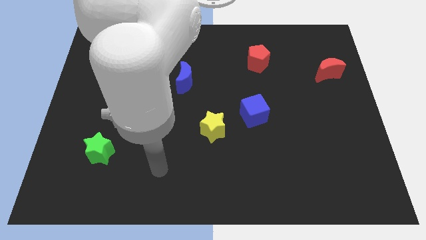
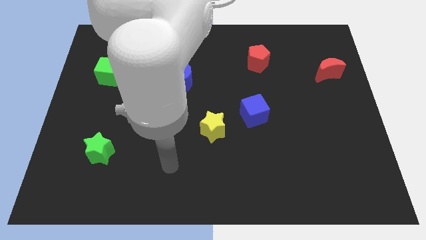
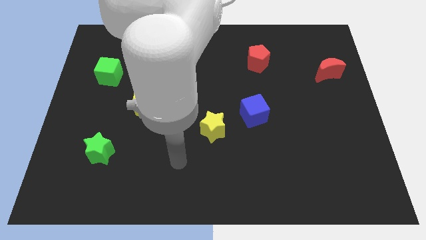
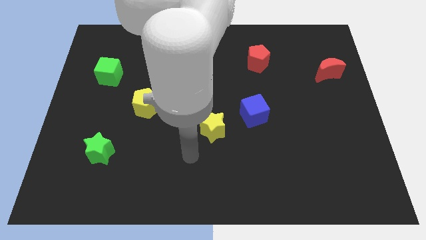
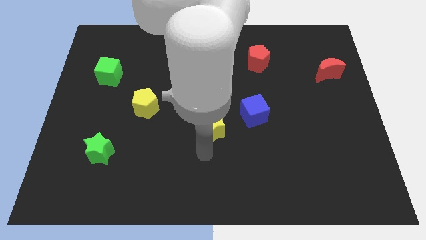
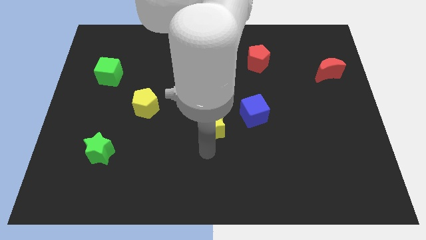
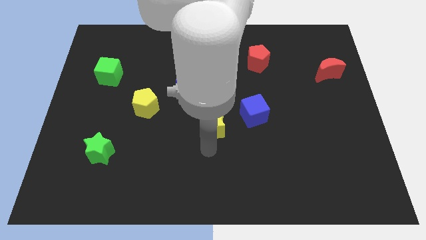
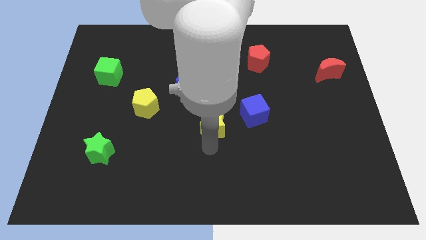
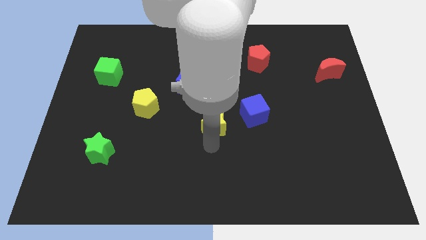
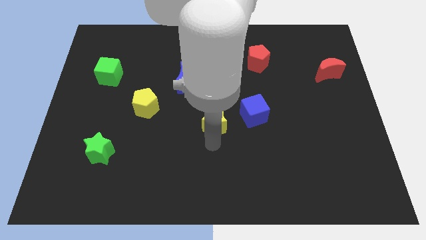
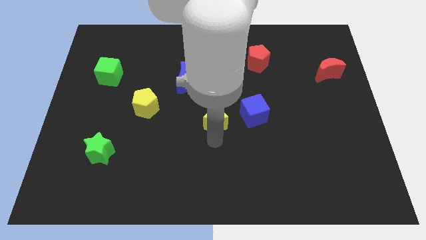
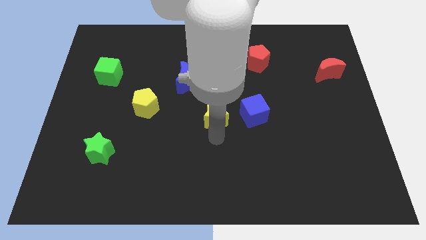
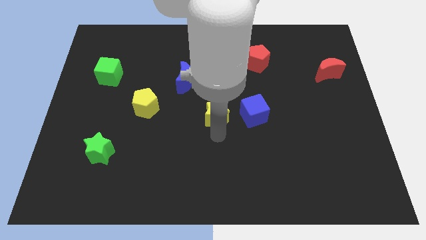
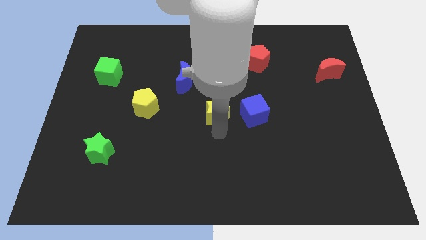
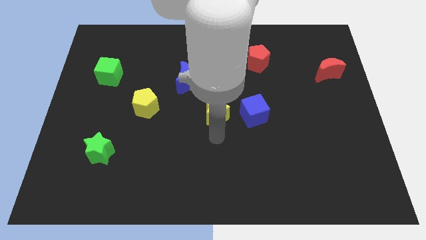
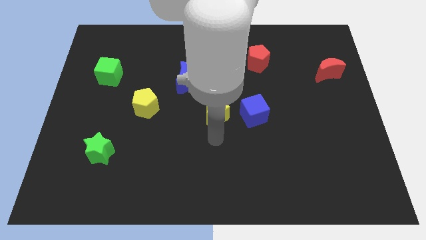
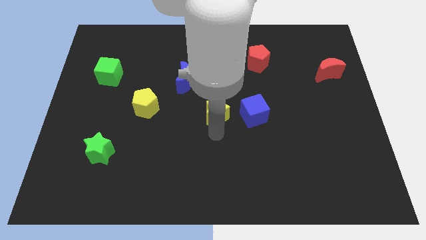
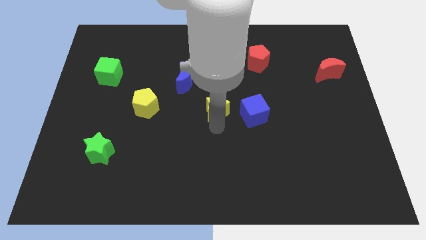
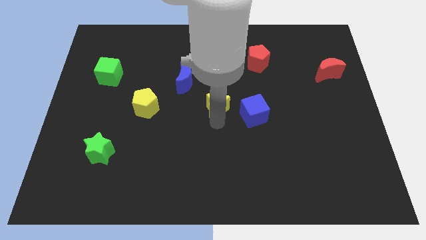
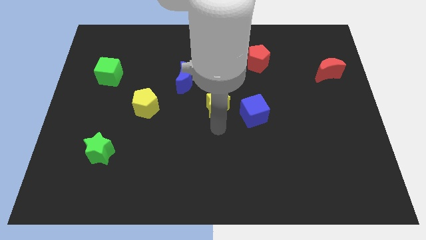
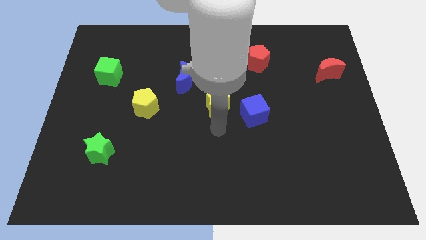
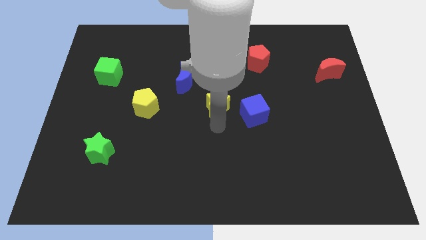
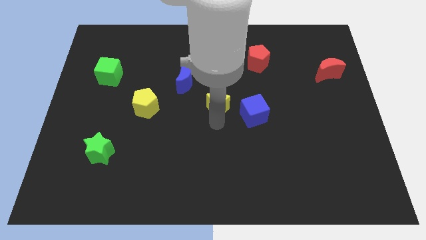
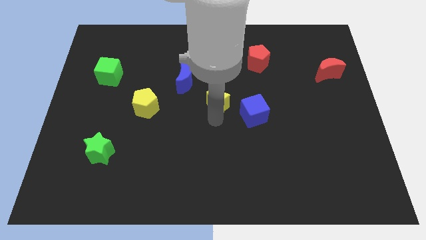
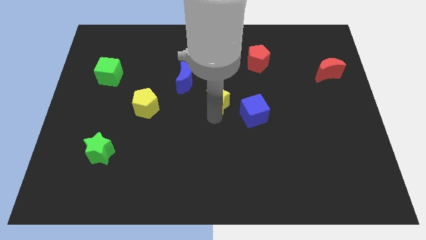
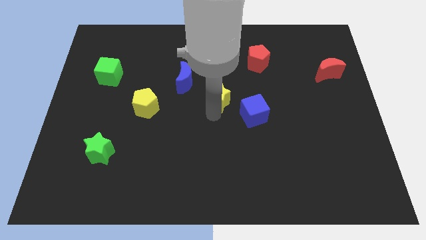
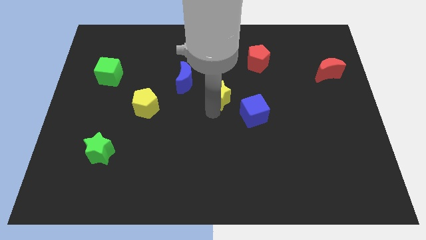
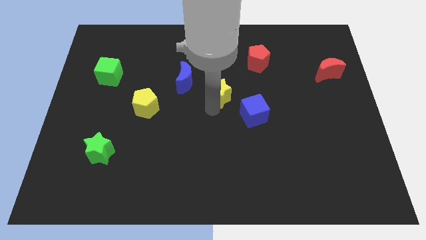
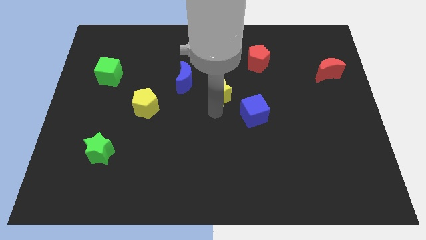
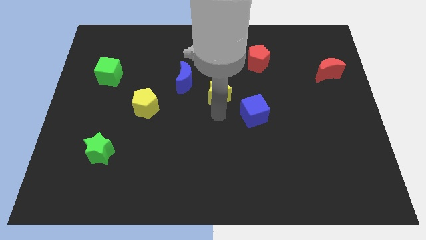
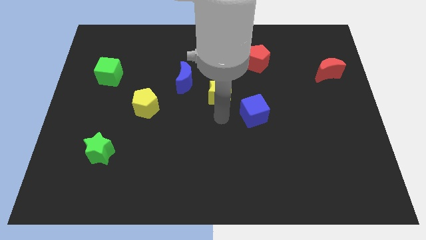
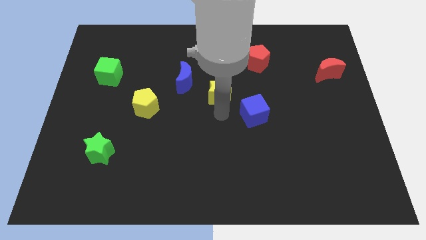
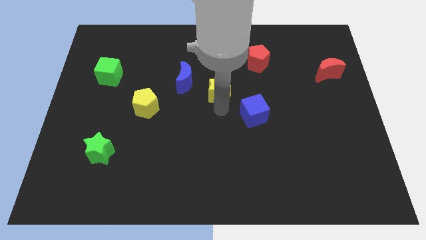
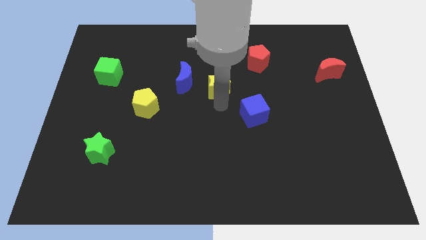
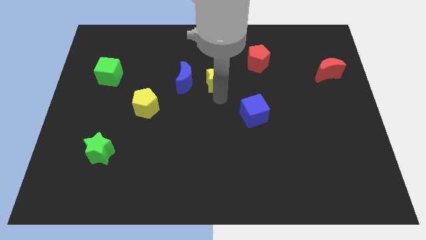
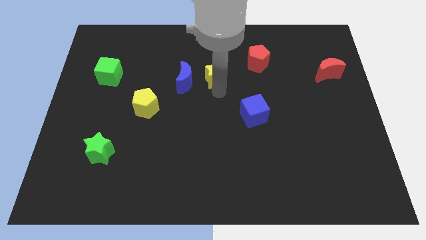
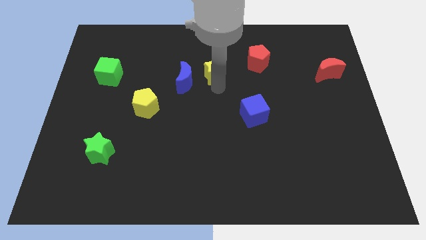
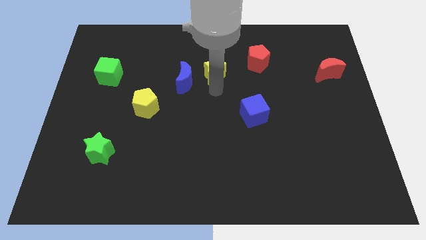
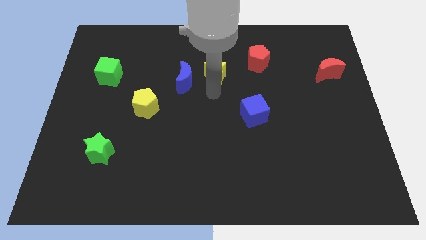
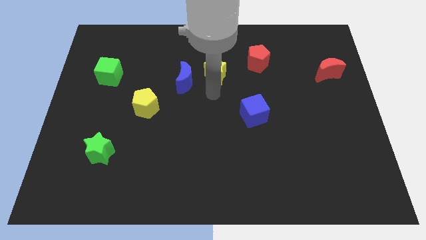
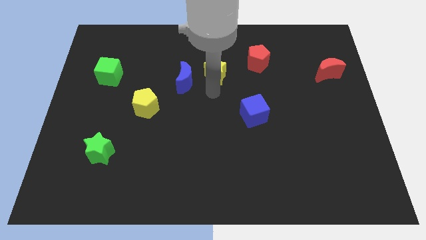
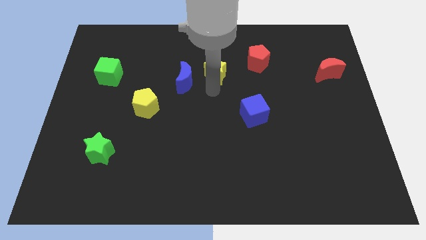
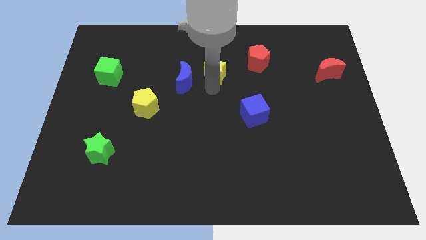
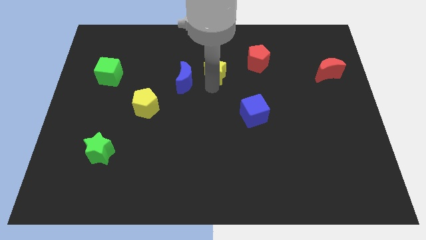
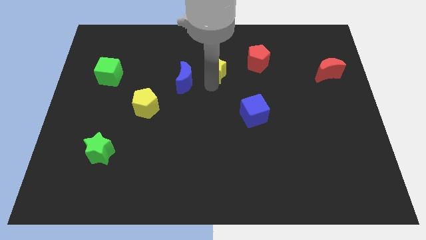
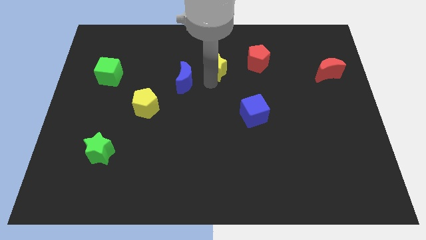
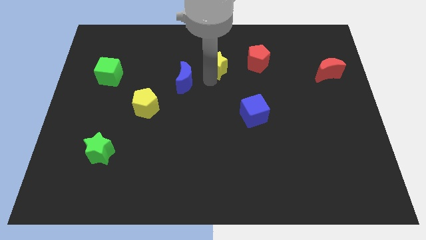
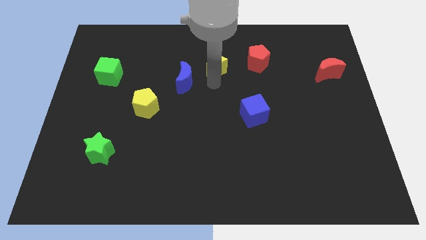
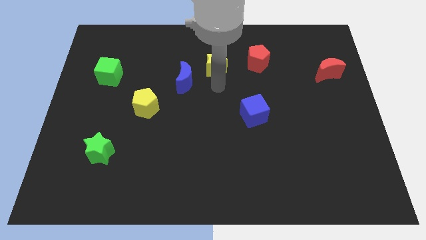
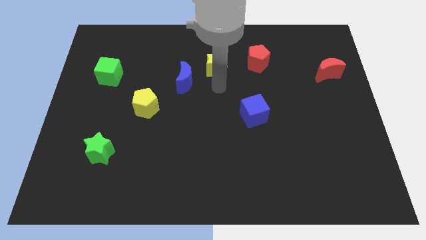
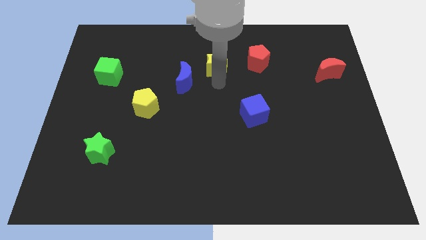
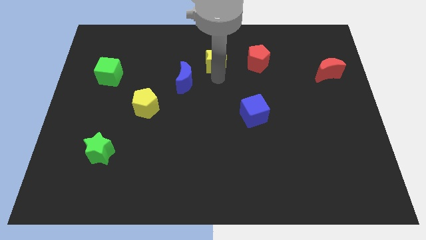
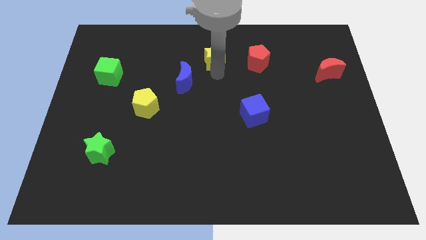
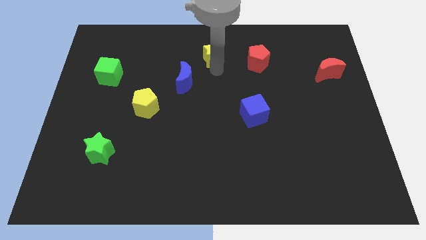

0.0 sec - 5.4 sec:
slide the yellow star to the top side

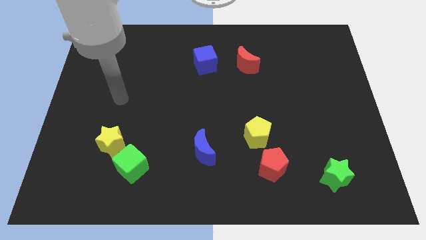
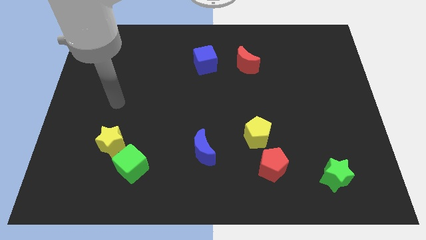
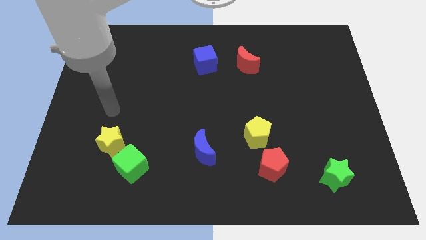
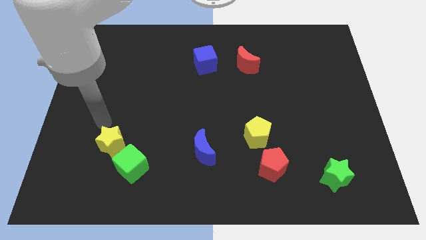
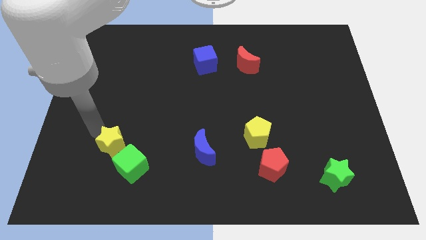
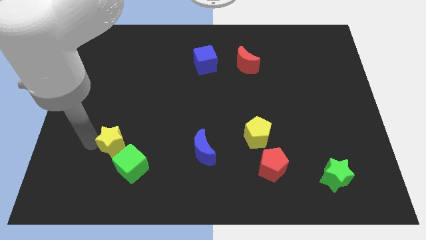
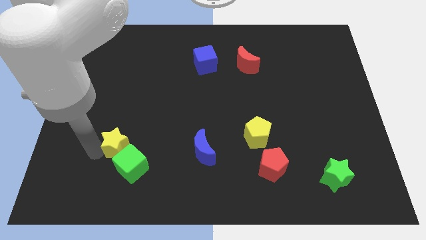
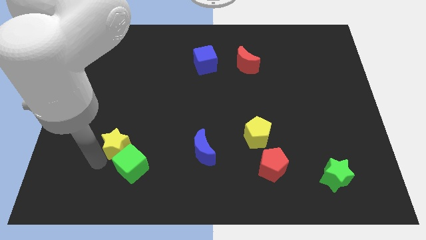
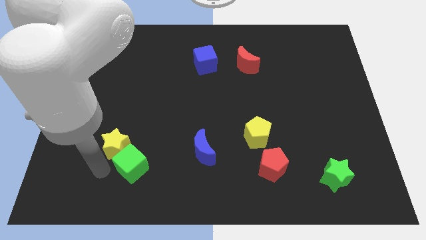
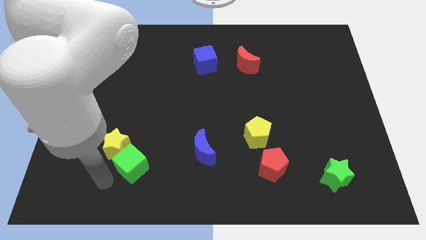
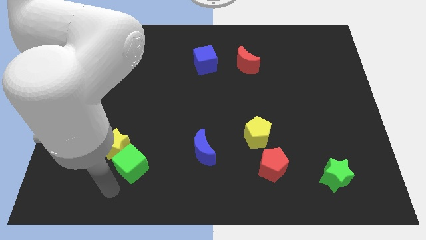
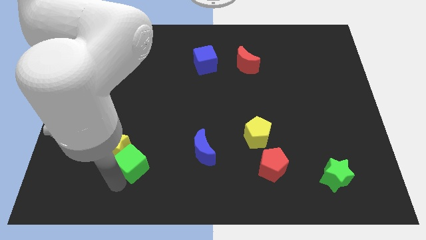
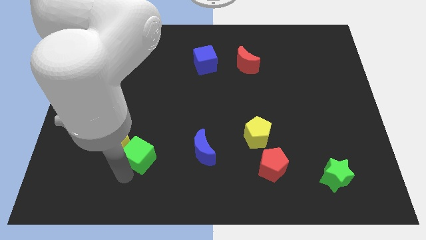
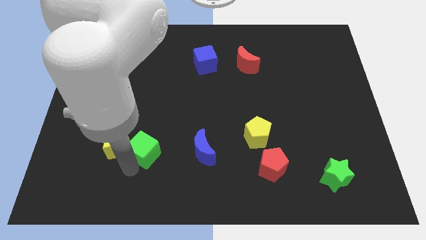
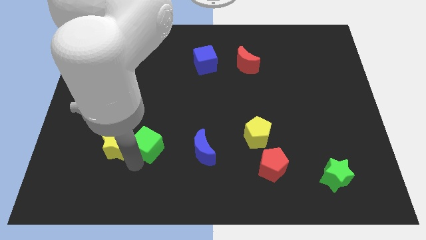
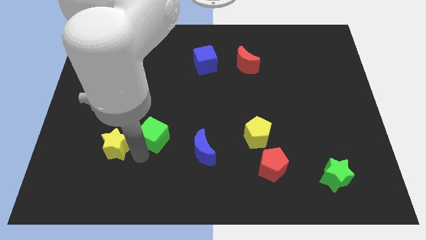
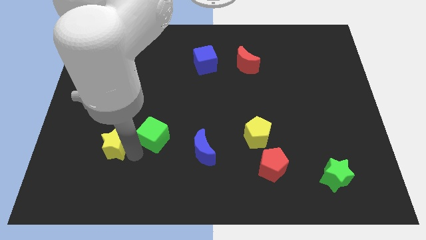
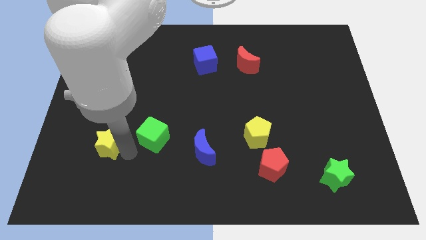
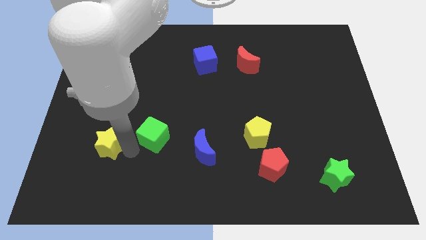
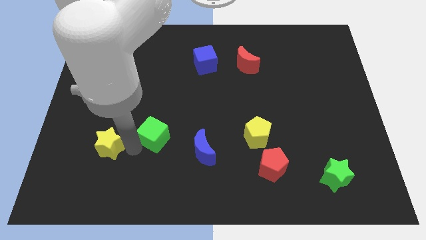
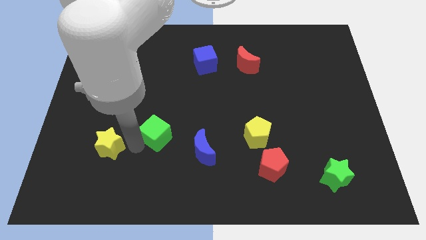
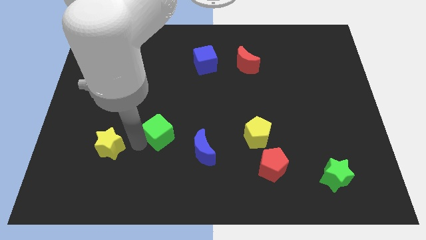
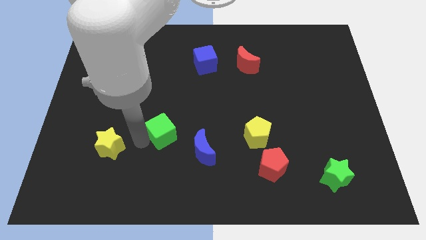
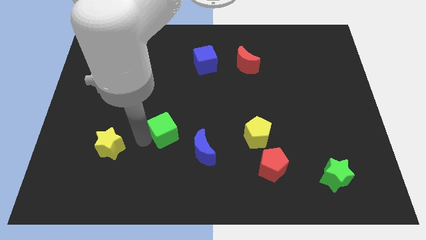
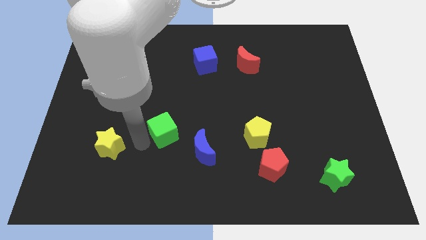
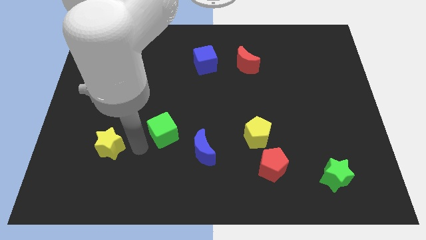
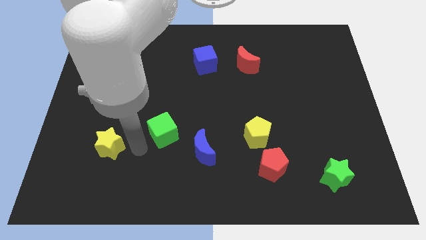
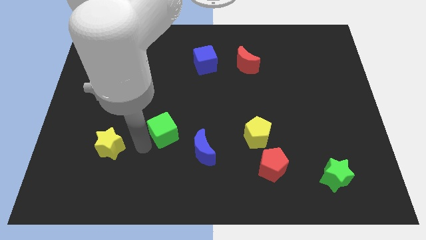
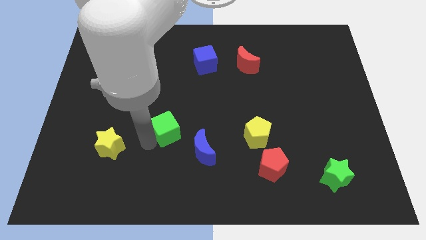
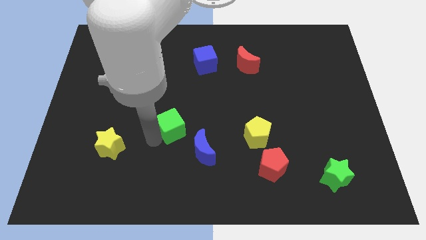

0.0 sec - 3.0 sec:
move the green cube to the center
